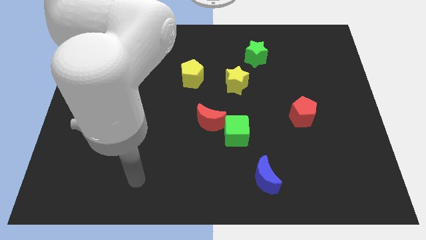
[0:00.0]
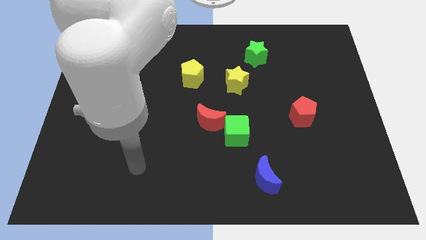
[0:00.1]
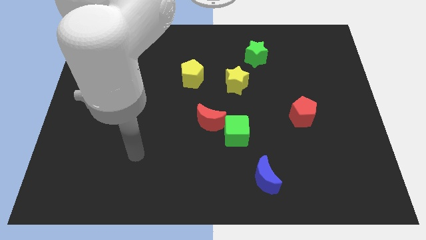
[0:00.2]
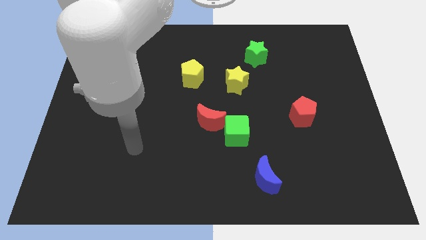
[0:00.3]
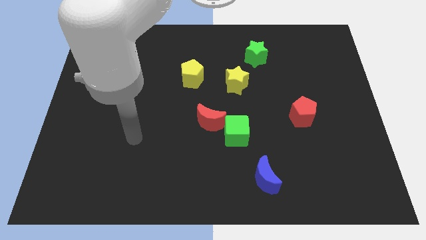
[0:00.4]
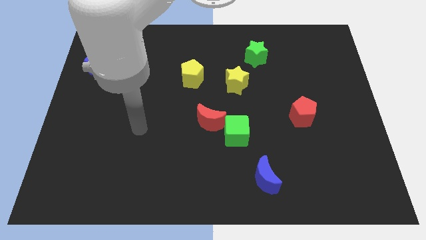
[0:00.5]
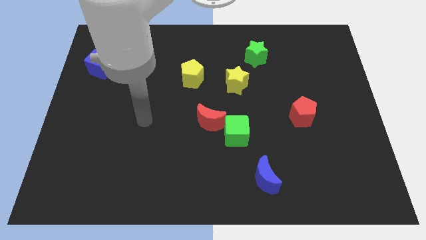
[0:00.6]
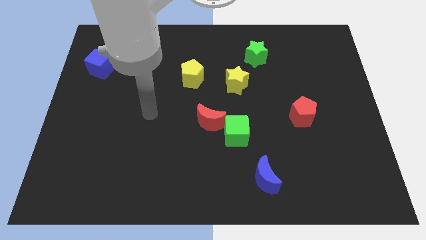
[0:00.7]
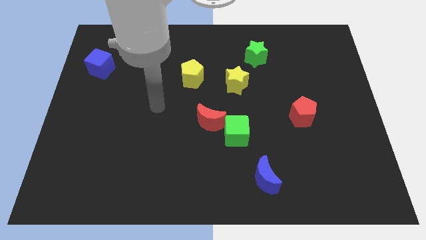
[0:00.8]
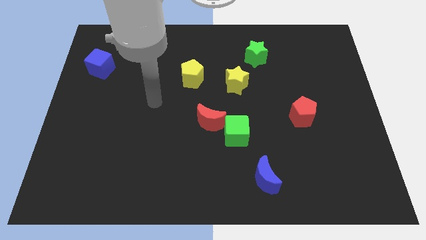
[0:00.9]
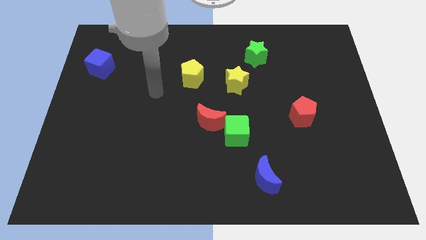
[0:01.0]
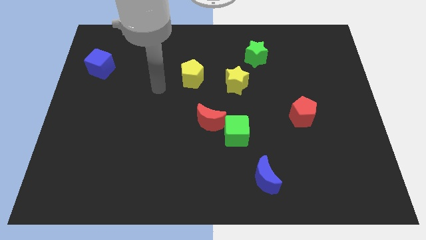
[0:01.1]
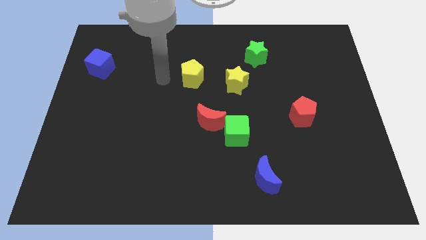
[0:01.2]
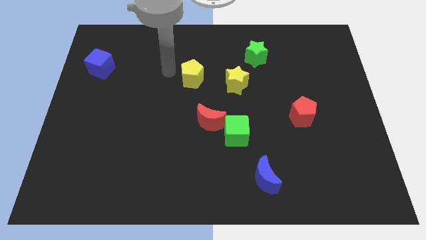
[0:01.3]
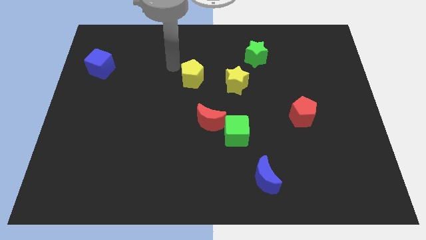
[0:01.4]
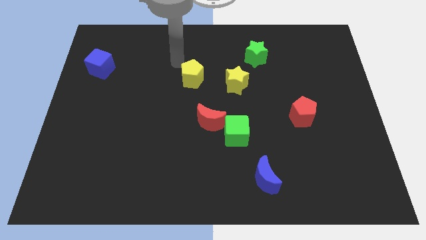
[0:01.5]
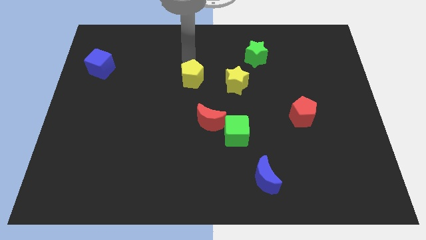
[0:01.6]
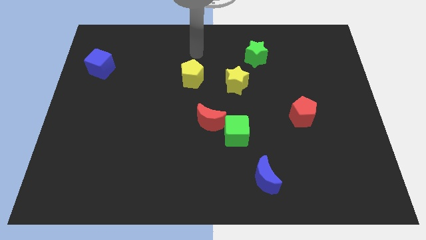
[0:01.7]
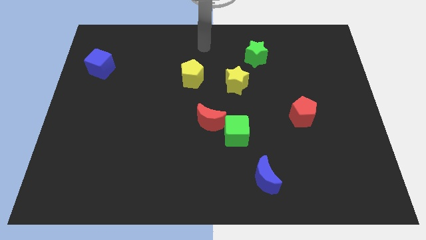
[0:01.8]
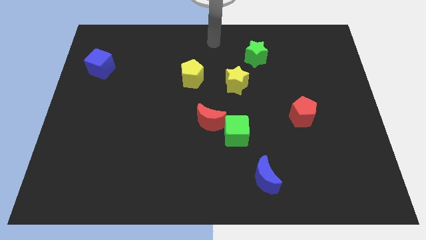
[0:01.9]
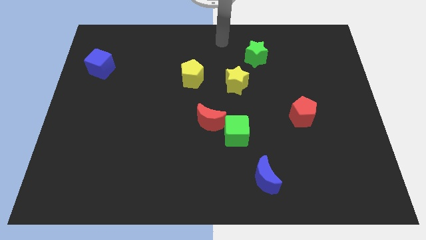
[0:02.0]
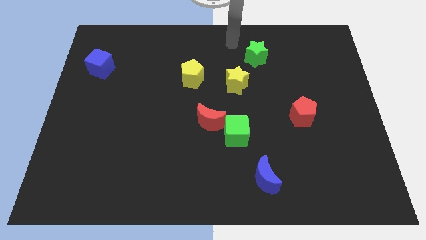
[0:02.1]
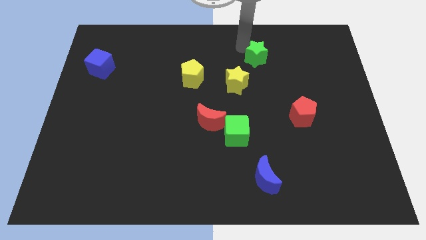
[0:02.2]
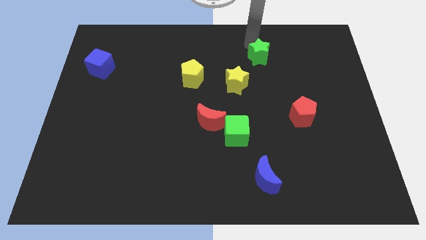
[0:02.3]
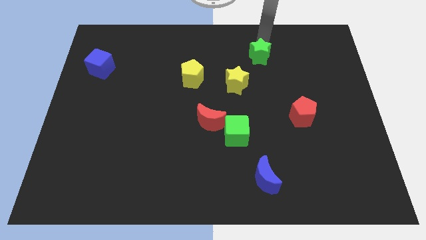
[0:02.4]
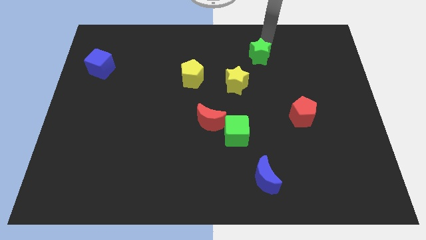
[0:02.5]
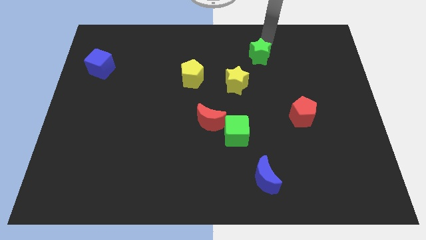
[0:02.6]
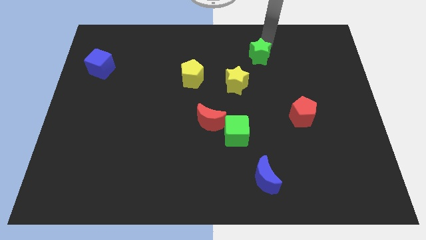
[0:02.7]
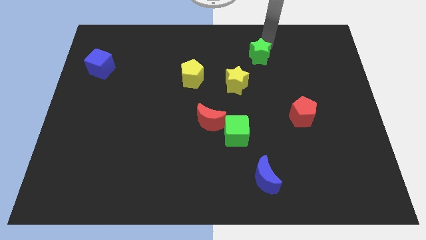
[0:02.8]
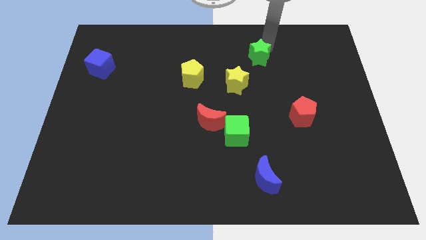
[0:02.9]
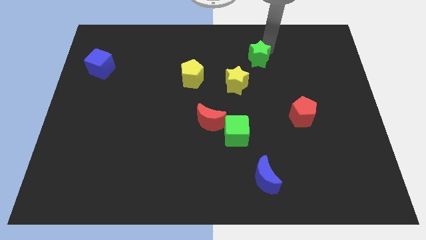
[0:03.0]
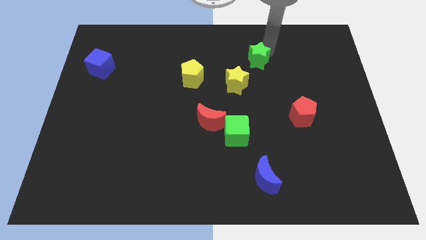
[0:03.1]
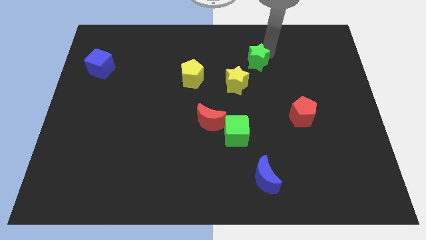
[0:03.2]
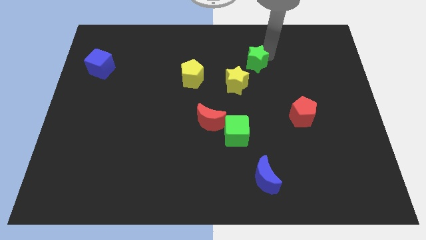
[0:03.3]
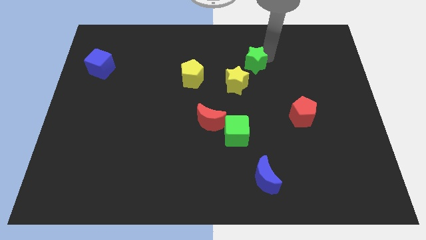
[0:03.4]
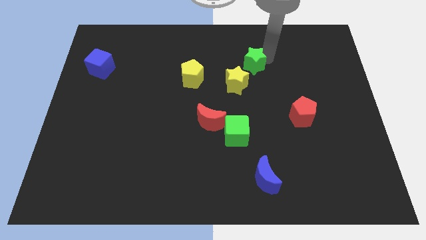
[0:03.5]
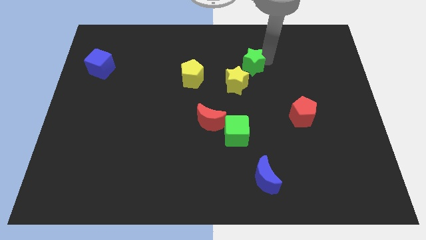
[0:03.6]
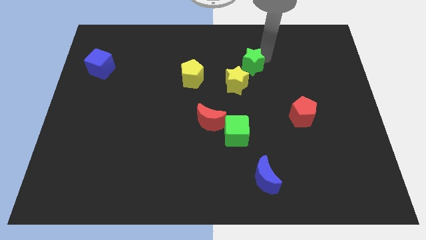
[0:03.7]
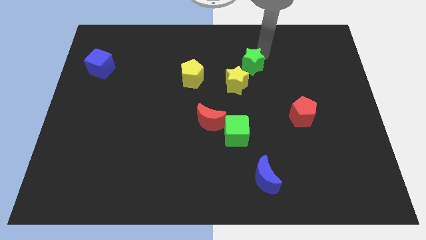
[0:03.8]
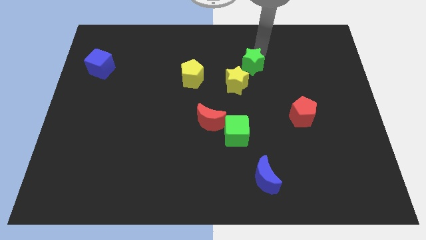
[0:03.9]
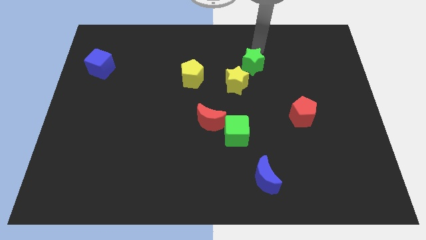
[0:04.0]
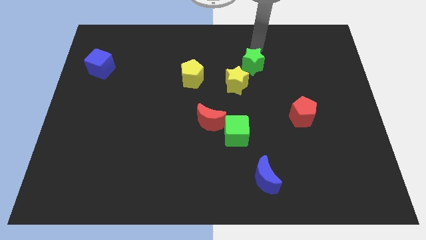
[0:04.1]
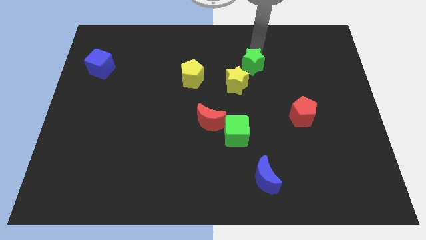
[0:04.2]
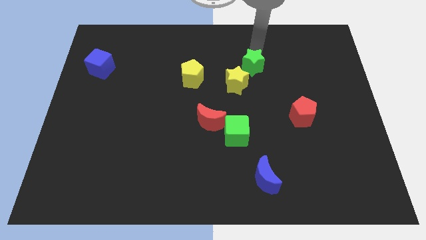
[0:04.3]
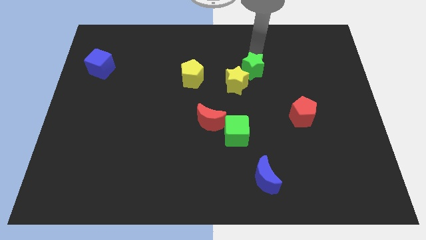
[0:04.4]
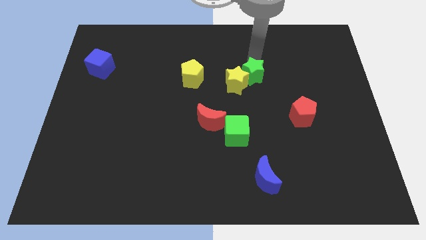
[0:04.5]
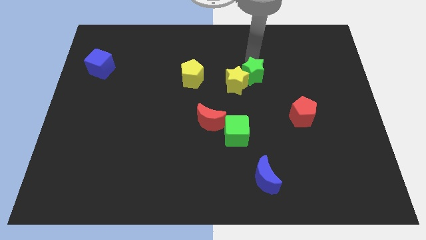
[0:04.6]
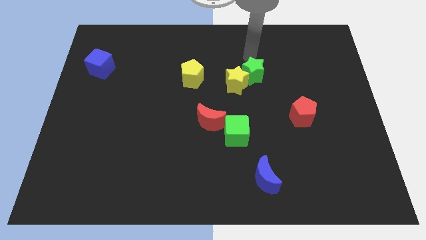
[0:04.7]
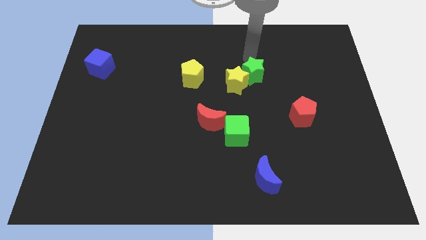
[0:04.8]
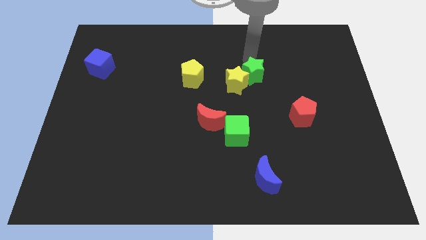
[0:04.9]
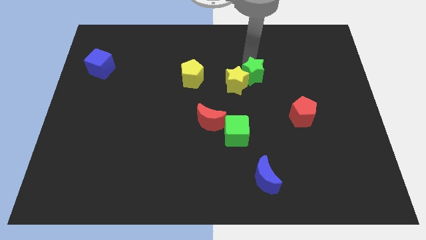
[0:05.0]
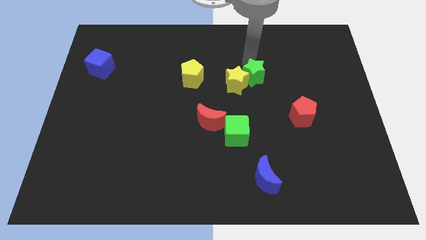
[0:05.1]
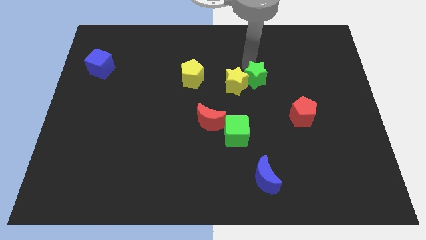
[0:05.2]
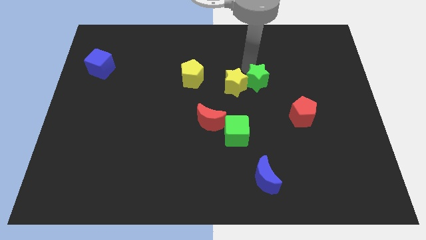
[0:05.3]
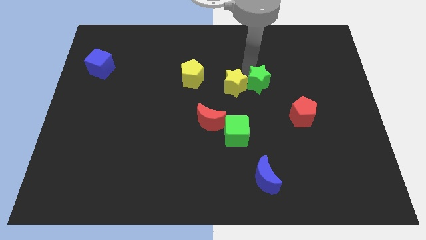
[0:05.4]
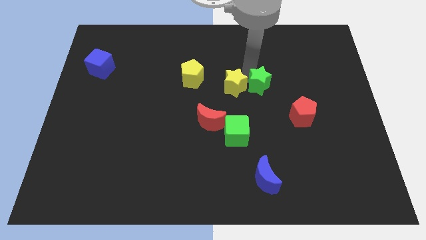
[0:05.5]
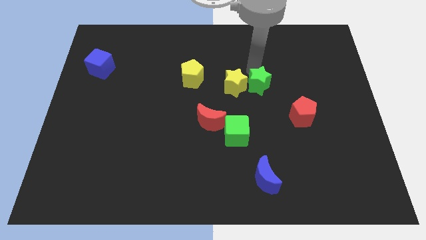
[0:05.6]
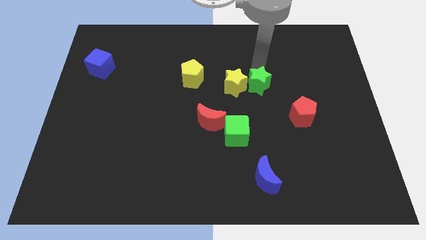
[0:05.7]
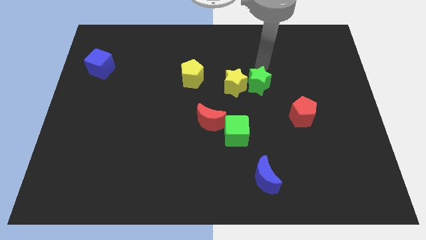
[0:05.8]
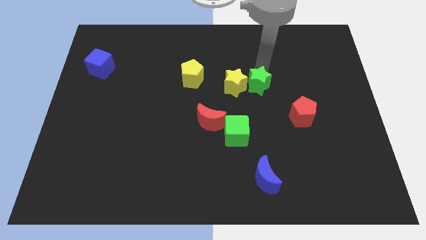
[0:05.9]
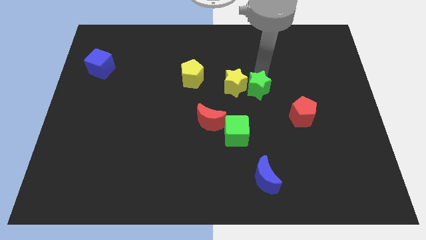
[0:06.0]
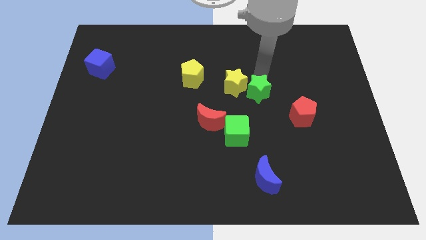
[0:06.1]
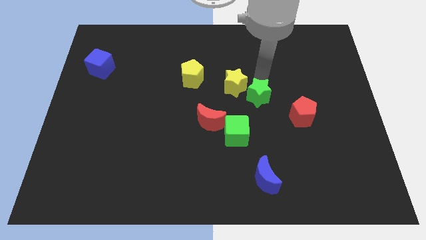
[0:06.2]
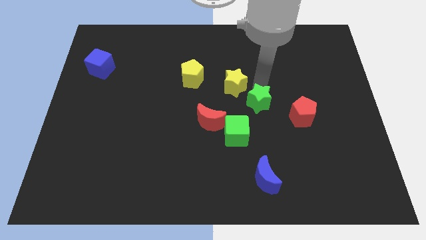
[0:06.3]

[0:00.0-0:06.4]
put the green star left of the red pentagon
